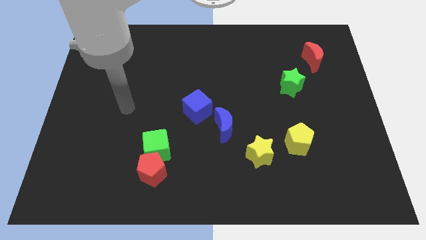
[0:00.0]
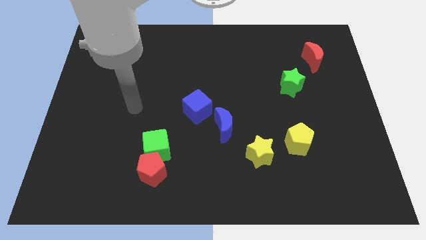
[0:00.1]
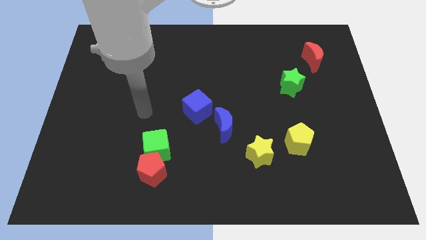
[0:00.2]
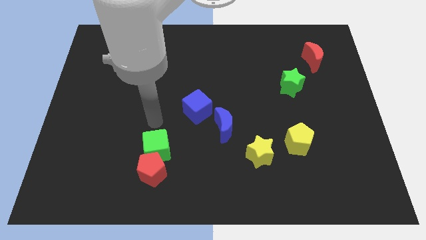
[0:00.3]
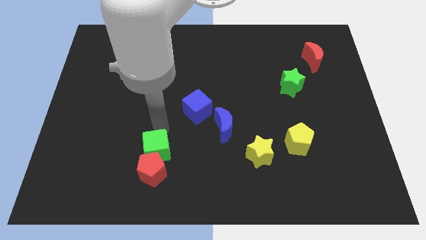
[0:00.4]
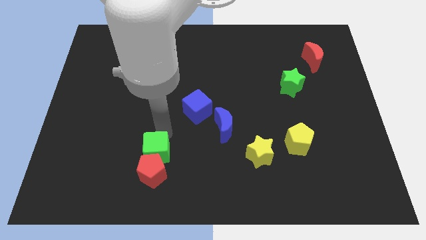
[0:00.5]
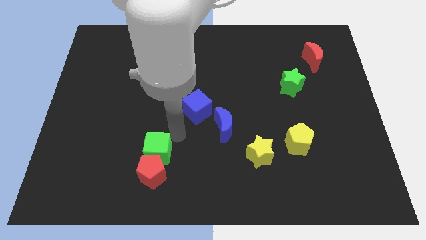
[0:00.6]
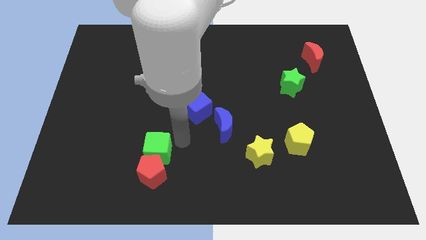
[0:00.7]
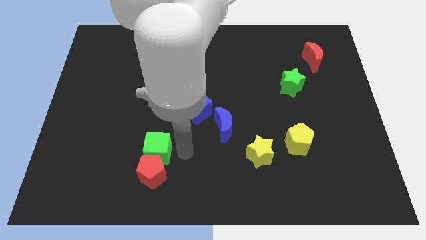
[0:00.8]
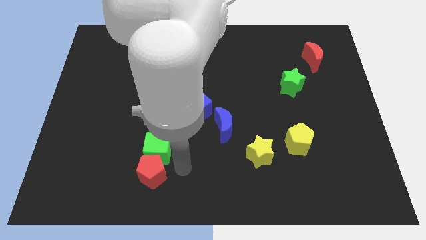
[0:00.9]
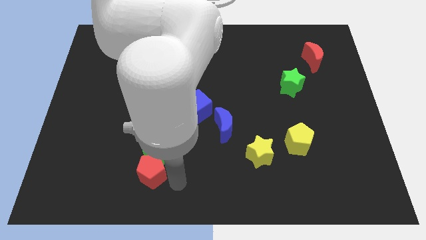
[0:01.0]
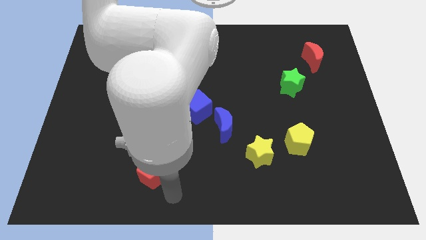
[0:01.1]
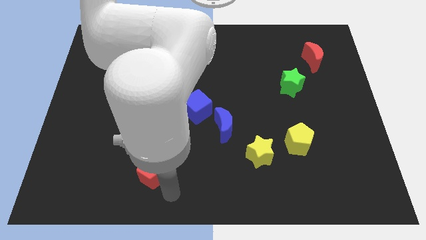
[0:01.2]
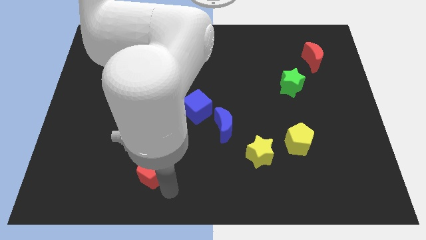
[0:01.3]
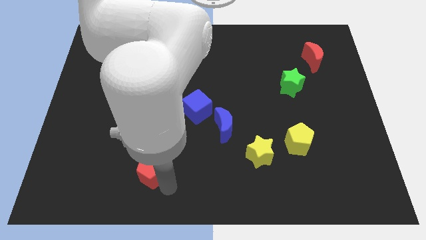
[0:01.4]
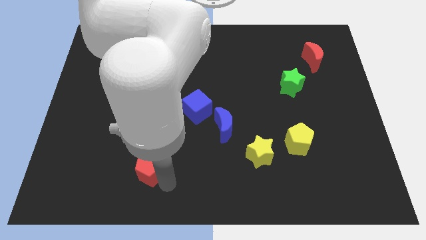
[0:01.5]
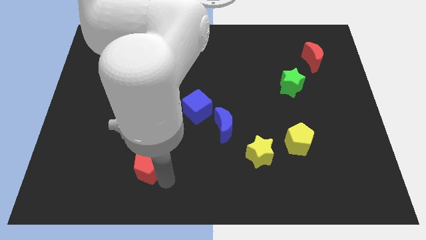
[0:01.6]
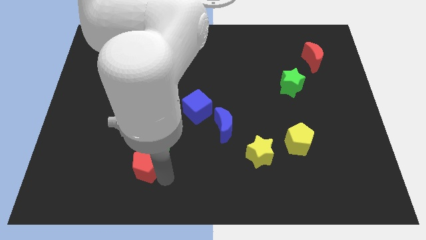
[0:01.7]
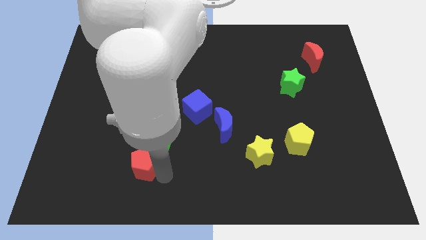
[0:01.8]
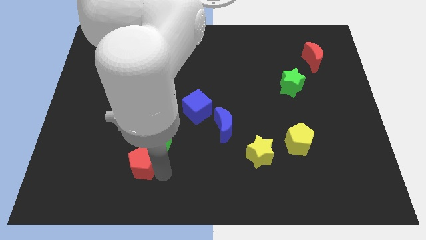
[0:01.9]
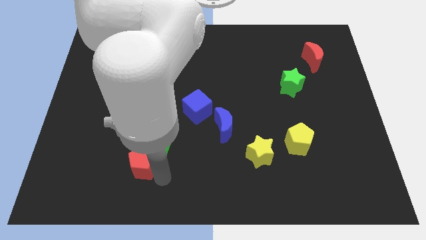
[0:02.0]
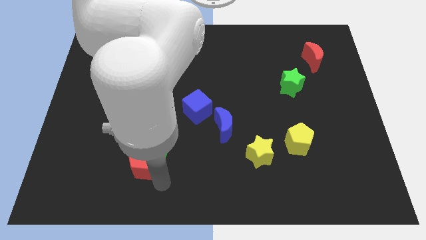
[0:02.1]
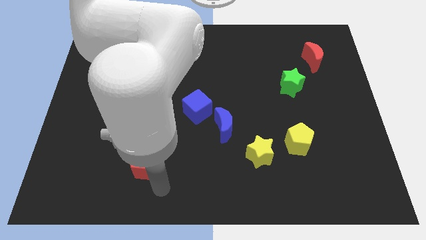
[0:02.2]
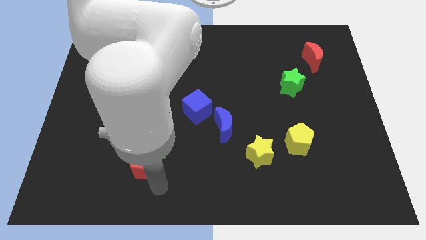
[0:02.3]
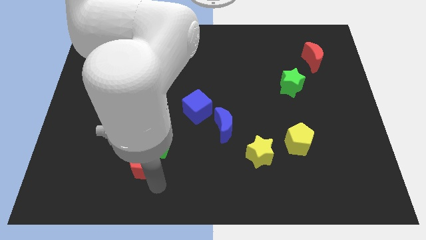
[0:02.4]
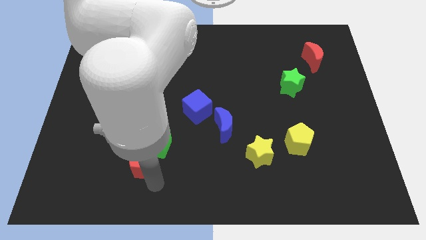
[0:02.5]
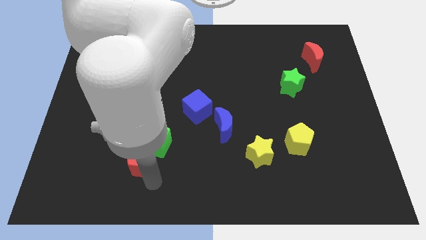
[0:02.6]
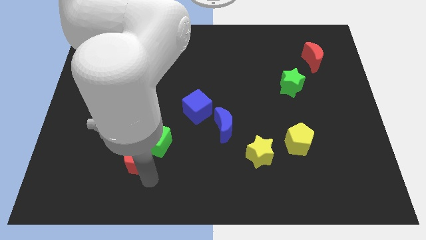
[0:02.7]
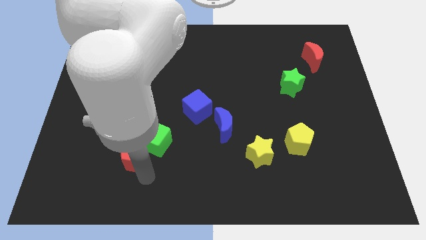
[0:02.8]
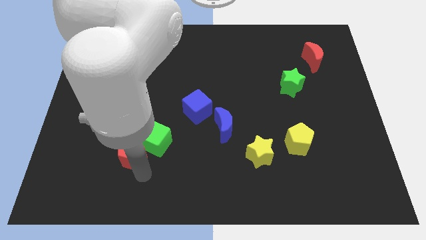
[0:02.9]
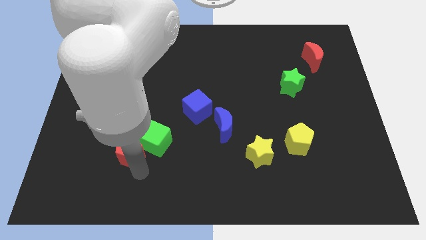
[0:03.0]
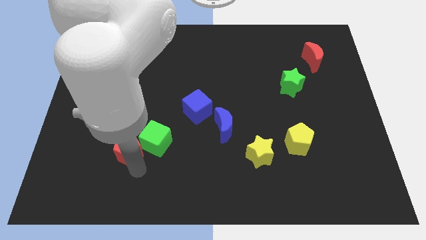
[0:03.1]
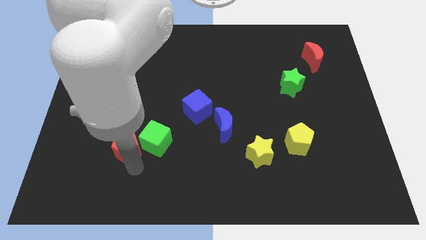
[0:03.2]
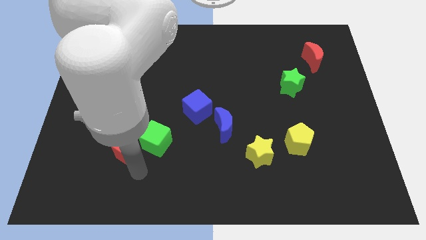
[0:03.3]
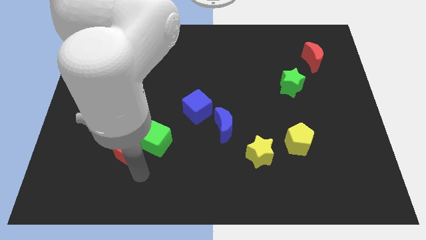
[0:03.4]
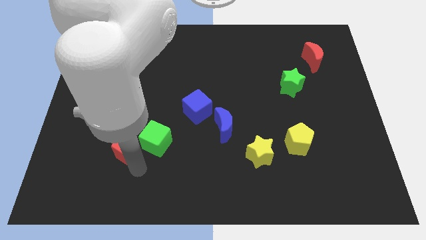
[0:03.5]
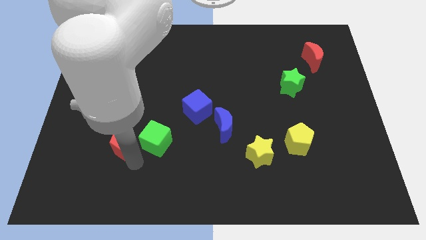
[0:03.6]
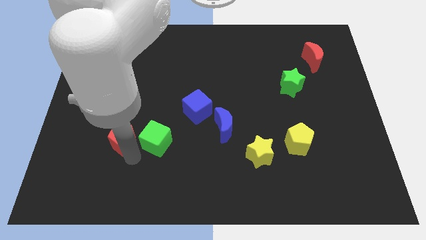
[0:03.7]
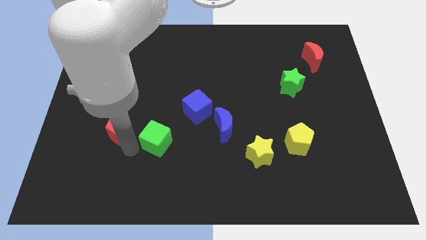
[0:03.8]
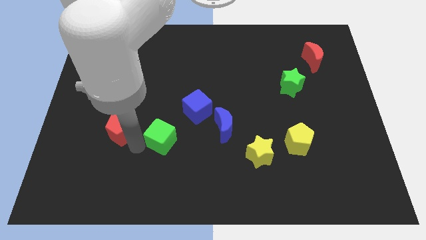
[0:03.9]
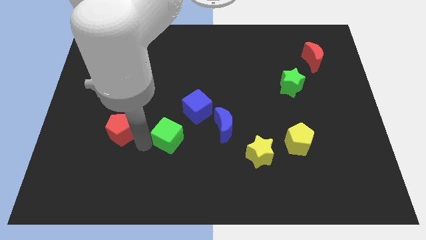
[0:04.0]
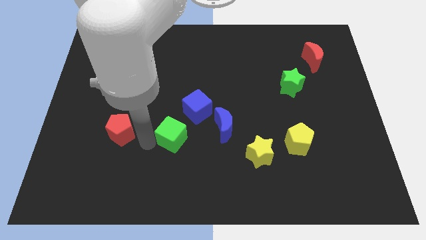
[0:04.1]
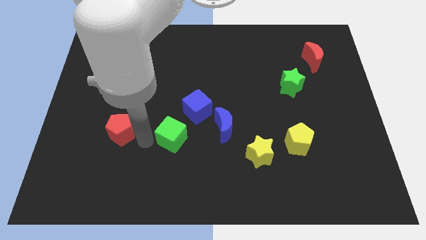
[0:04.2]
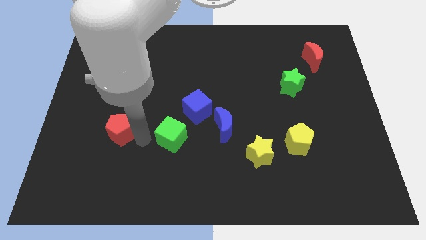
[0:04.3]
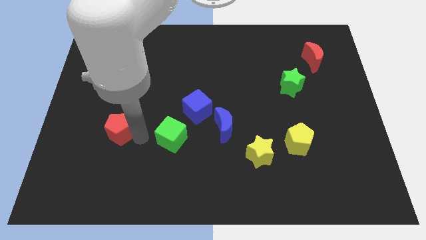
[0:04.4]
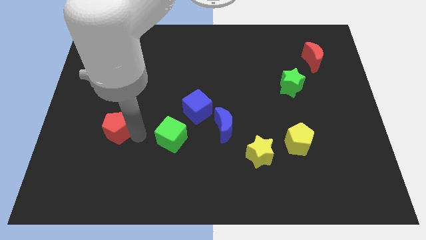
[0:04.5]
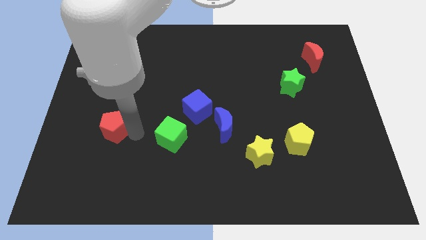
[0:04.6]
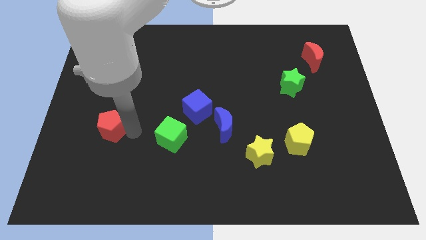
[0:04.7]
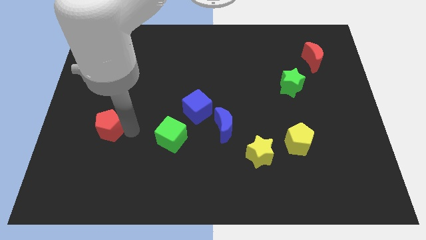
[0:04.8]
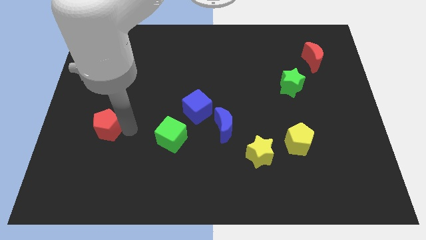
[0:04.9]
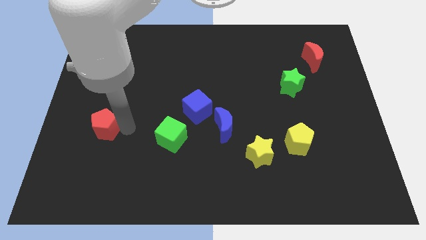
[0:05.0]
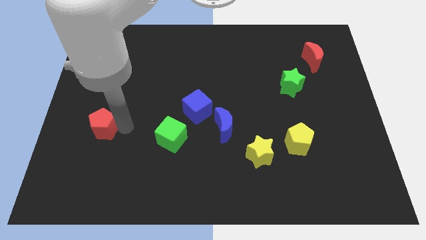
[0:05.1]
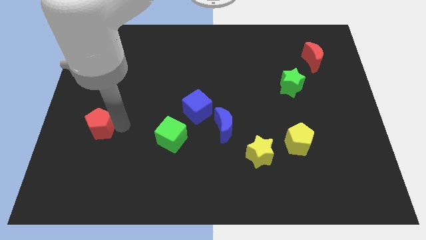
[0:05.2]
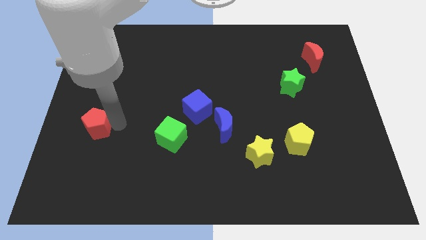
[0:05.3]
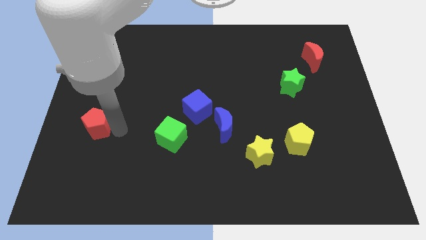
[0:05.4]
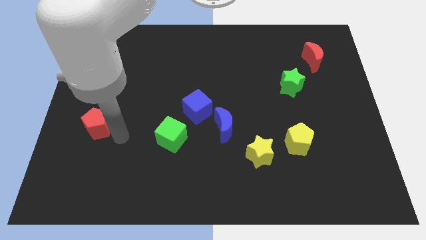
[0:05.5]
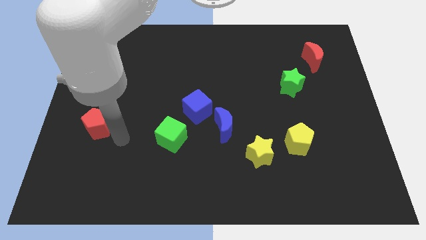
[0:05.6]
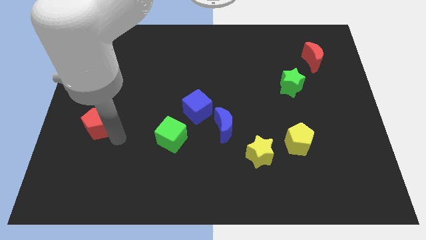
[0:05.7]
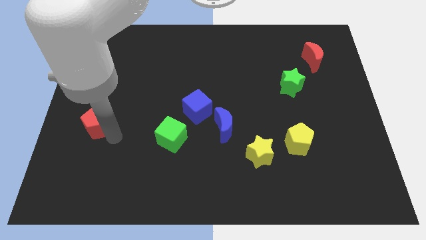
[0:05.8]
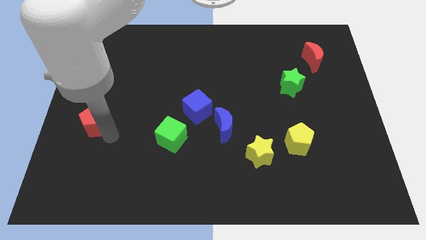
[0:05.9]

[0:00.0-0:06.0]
slide the red pentagon to the left side of the board
